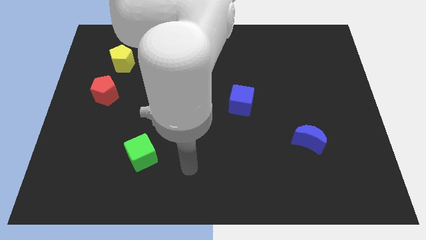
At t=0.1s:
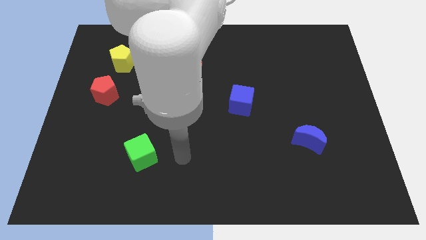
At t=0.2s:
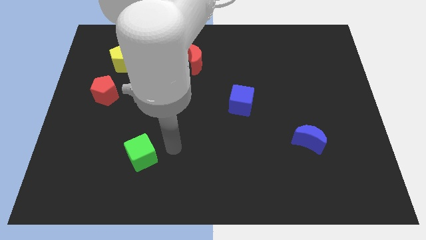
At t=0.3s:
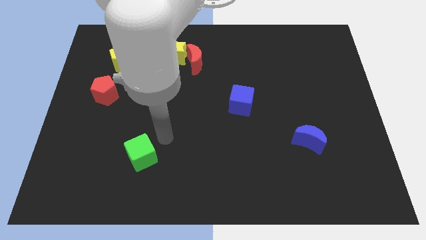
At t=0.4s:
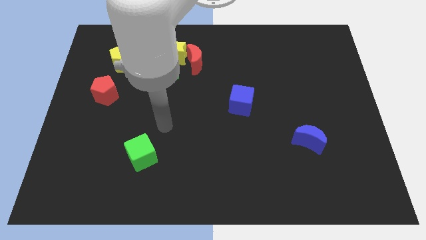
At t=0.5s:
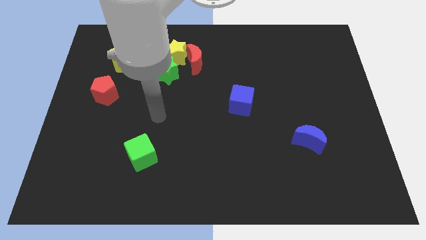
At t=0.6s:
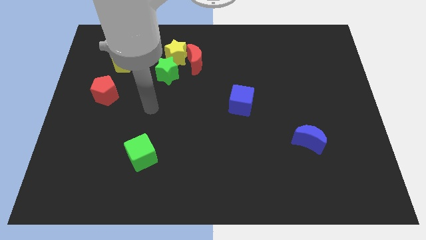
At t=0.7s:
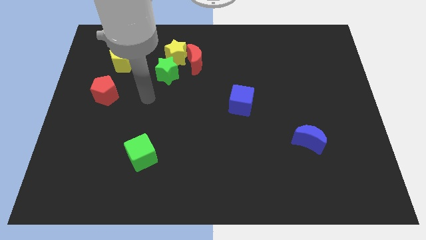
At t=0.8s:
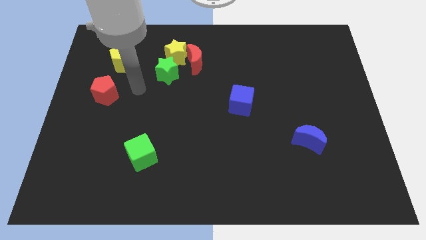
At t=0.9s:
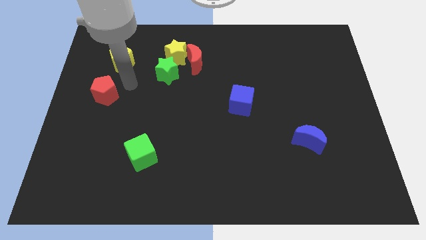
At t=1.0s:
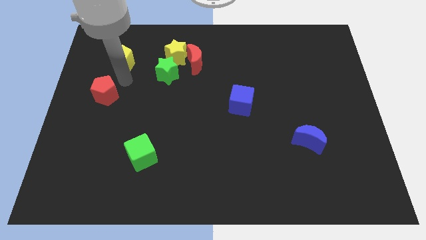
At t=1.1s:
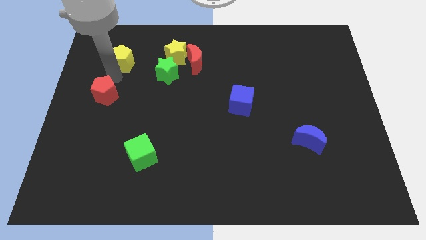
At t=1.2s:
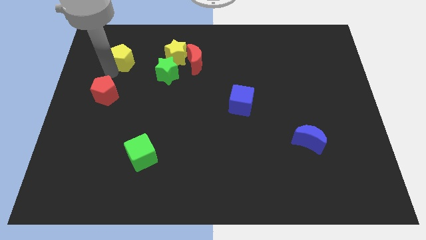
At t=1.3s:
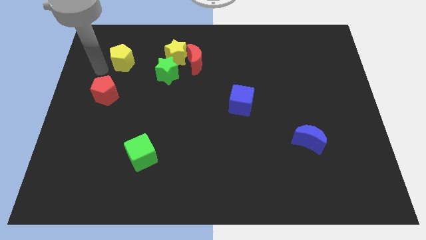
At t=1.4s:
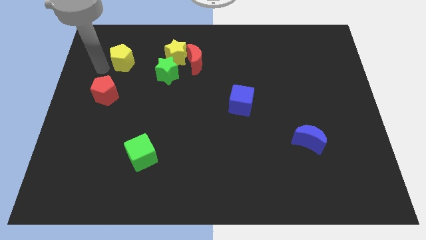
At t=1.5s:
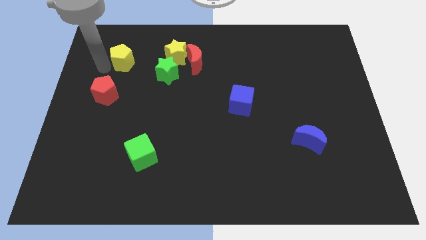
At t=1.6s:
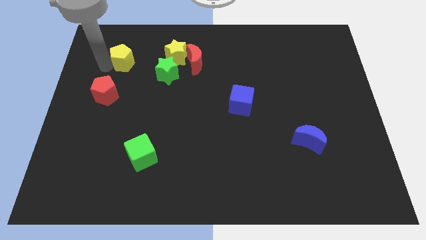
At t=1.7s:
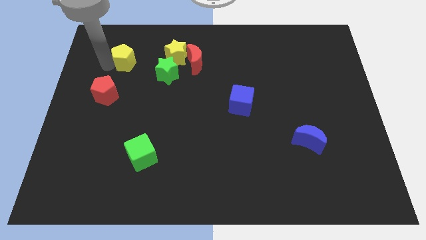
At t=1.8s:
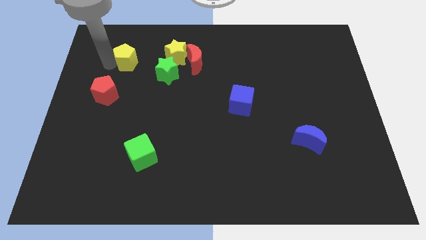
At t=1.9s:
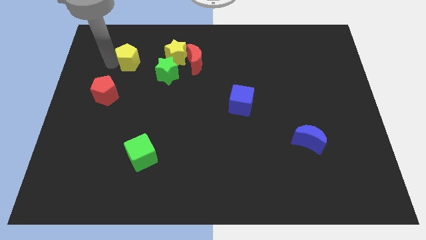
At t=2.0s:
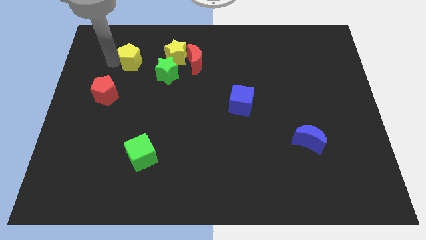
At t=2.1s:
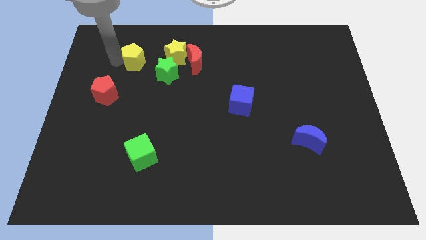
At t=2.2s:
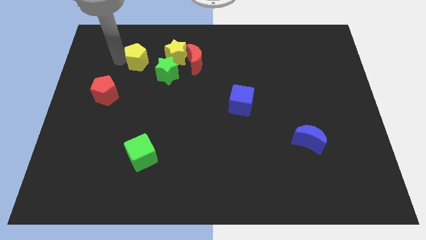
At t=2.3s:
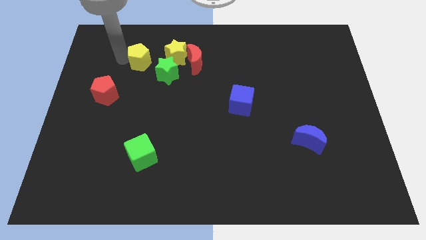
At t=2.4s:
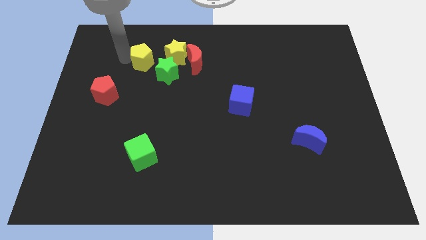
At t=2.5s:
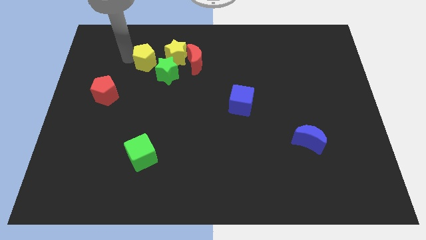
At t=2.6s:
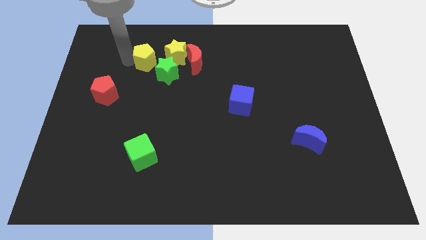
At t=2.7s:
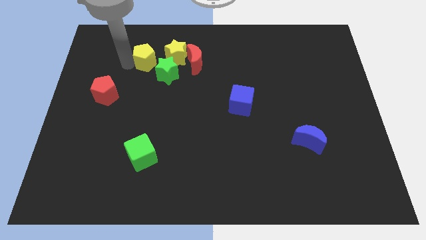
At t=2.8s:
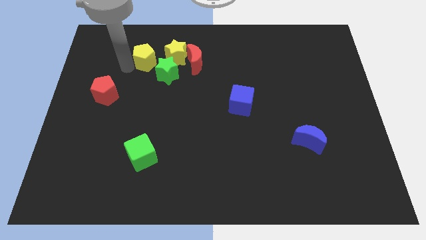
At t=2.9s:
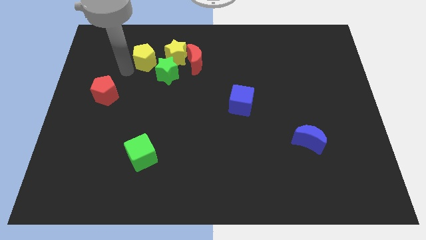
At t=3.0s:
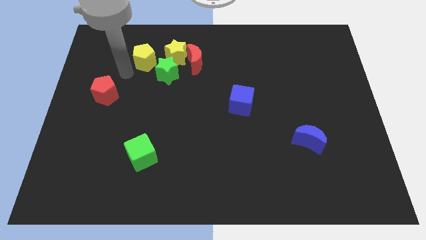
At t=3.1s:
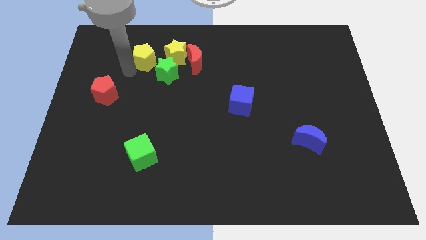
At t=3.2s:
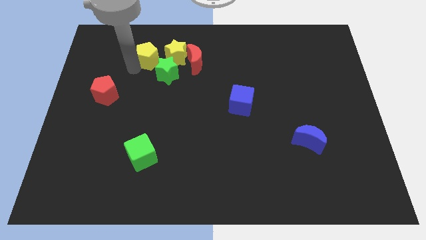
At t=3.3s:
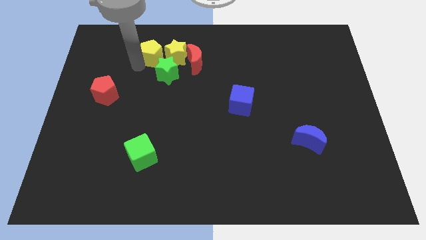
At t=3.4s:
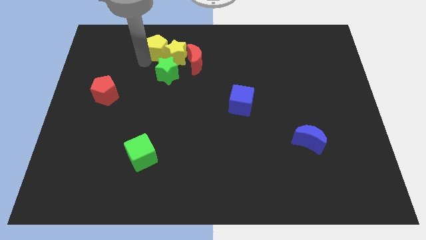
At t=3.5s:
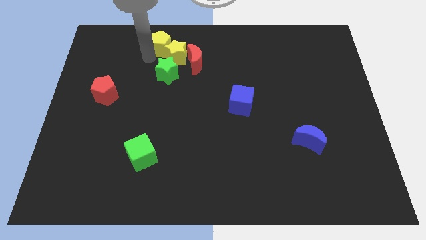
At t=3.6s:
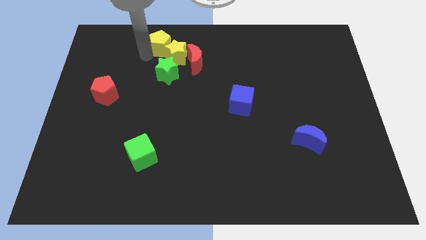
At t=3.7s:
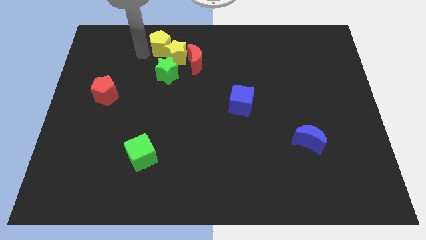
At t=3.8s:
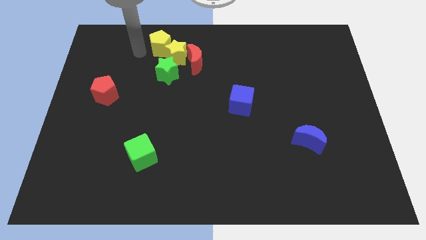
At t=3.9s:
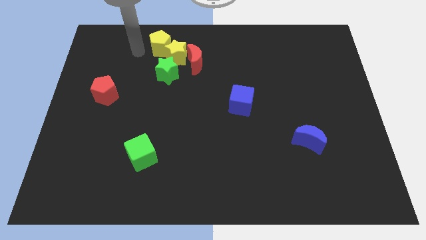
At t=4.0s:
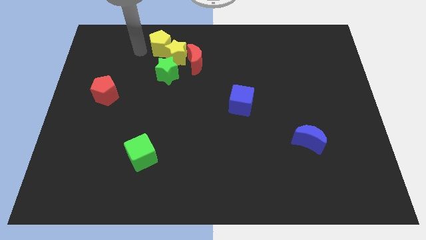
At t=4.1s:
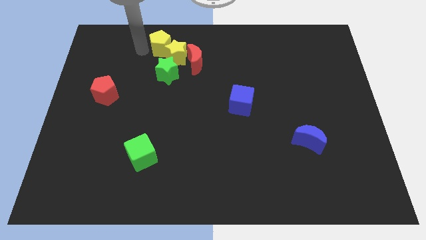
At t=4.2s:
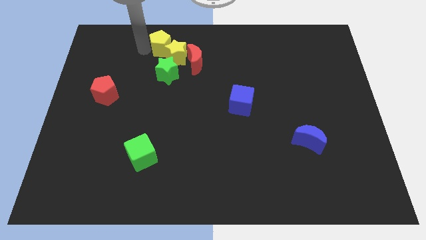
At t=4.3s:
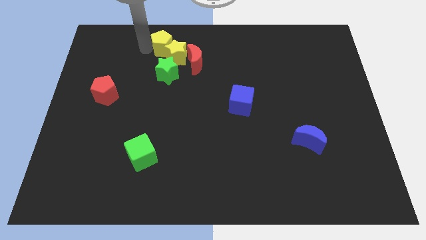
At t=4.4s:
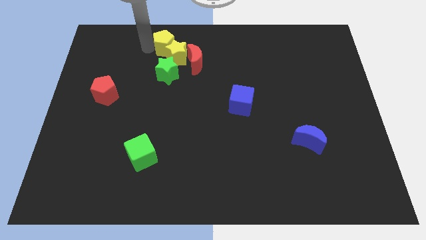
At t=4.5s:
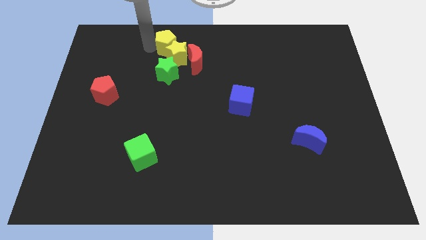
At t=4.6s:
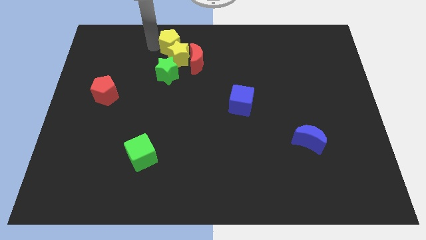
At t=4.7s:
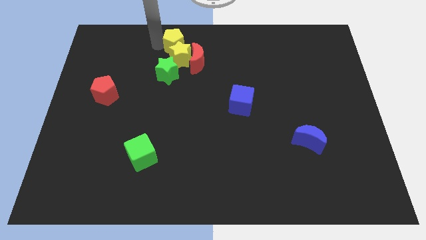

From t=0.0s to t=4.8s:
put the yellow pentagon to the top

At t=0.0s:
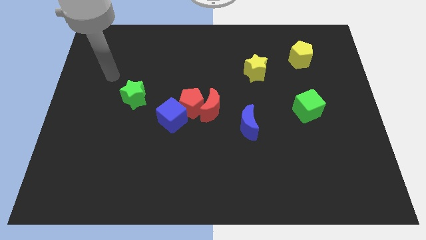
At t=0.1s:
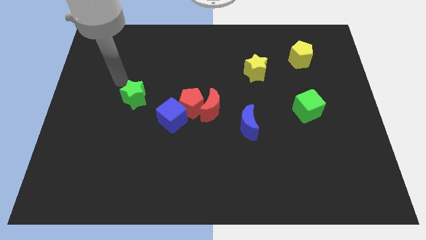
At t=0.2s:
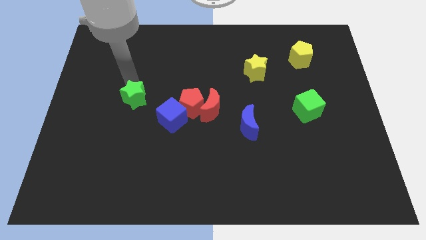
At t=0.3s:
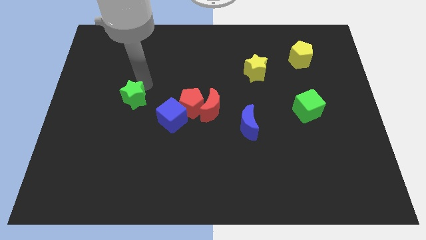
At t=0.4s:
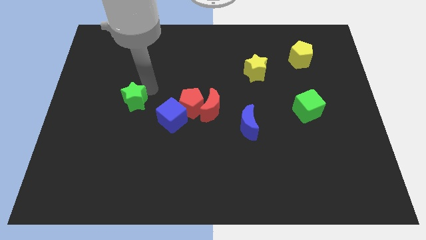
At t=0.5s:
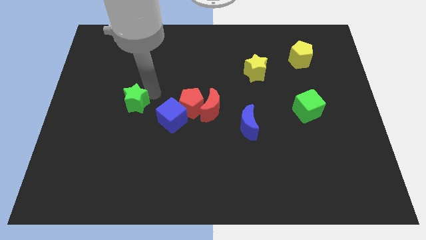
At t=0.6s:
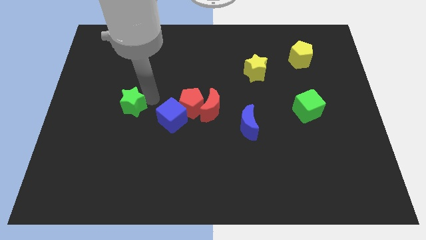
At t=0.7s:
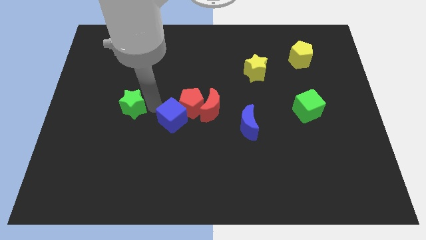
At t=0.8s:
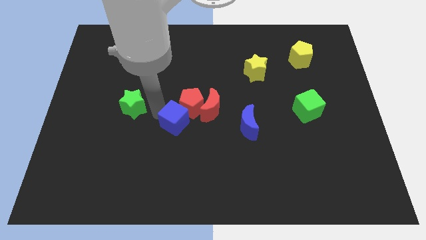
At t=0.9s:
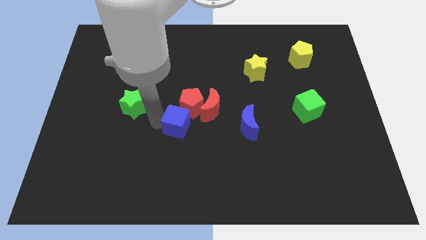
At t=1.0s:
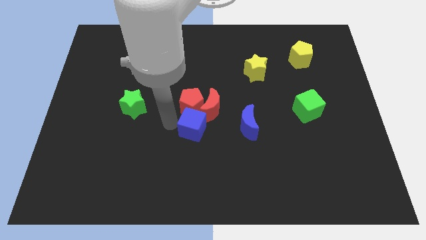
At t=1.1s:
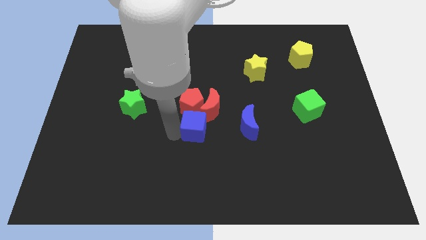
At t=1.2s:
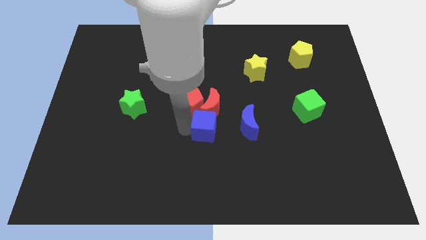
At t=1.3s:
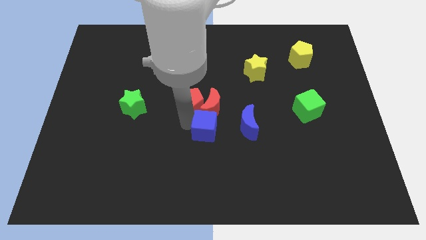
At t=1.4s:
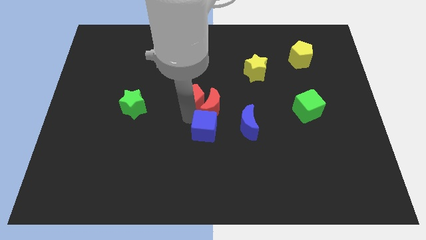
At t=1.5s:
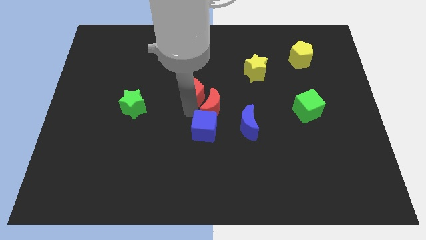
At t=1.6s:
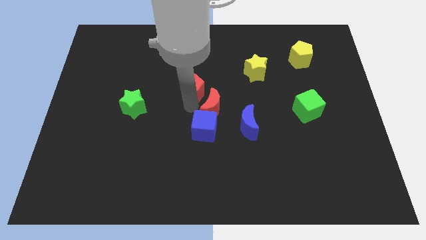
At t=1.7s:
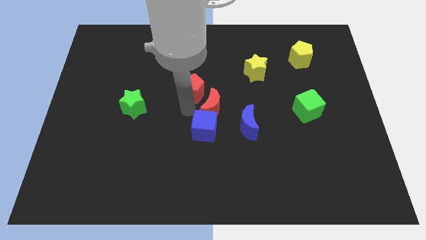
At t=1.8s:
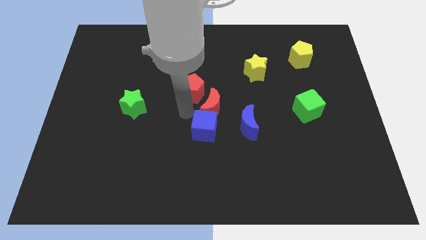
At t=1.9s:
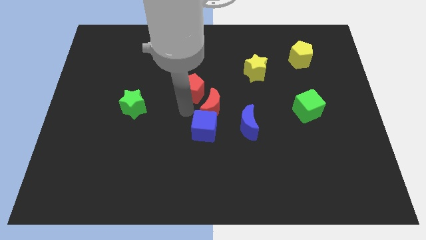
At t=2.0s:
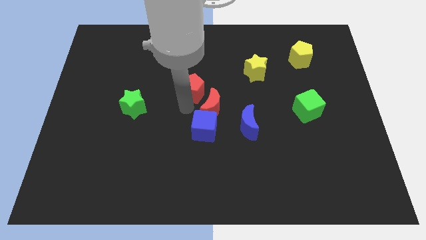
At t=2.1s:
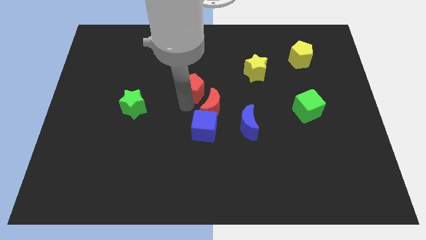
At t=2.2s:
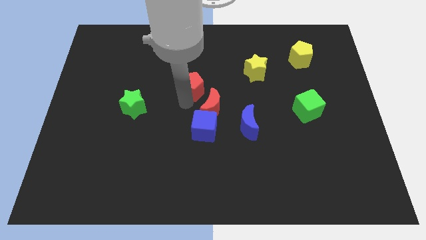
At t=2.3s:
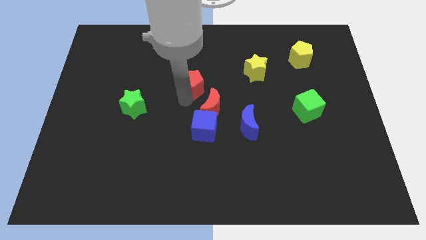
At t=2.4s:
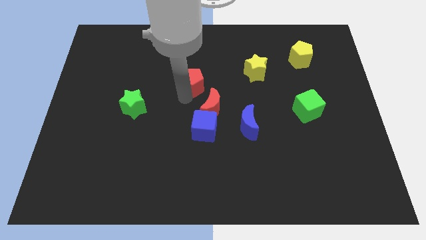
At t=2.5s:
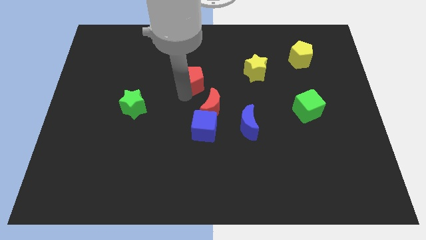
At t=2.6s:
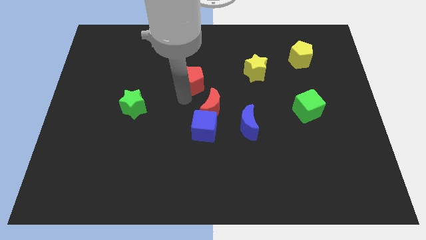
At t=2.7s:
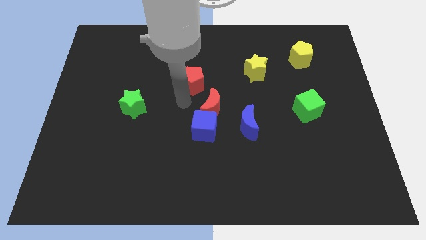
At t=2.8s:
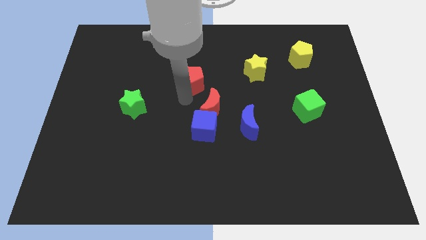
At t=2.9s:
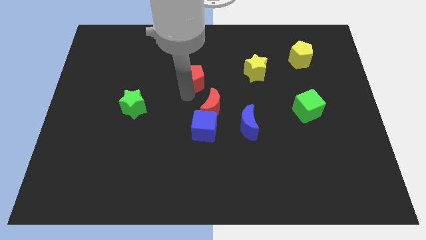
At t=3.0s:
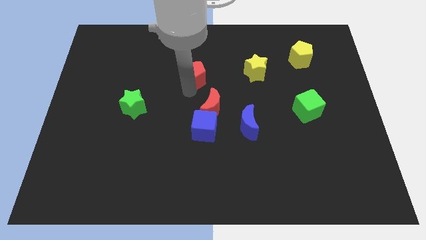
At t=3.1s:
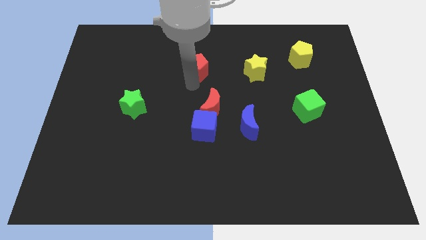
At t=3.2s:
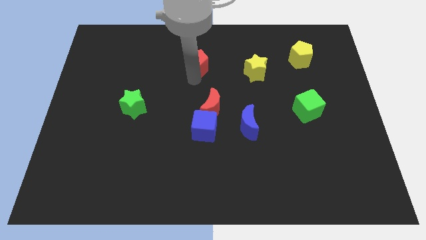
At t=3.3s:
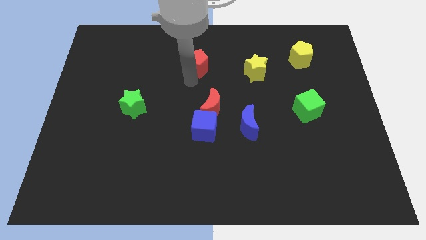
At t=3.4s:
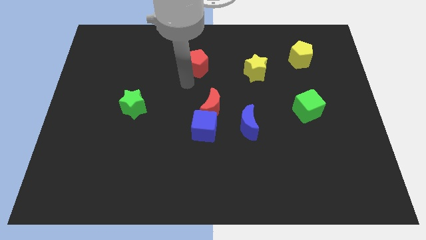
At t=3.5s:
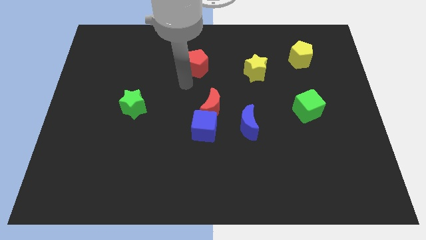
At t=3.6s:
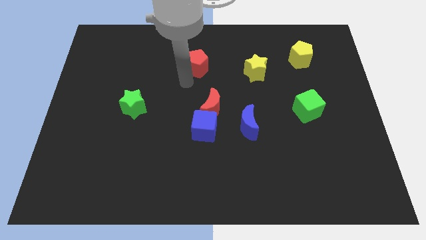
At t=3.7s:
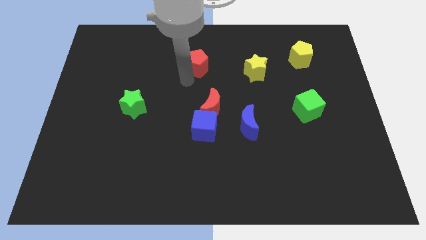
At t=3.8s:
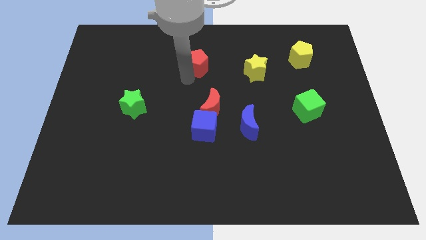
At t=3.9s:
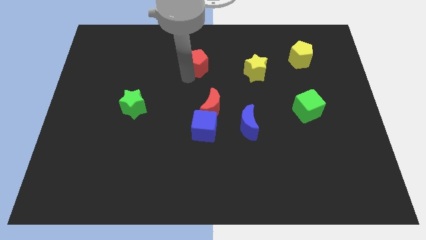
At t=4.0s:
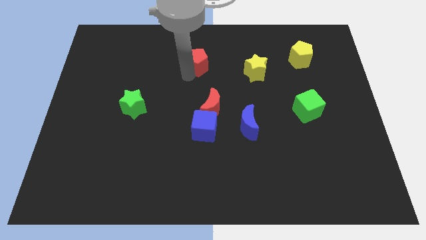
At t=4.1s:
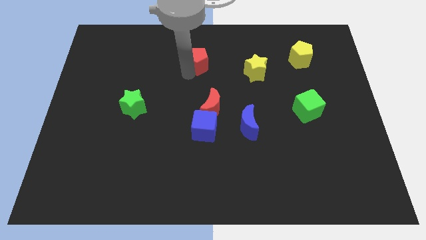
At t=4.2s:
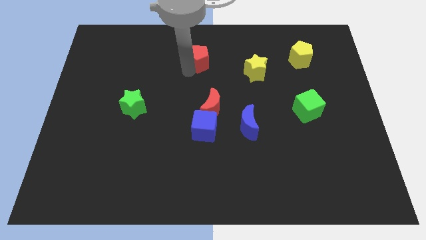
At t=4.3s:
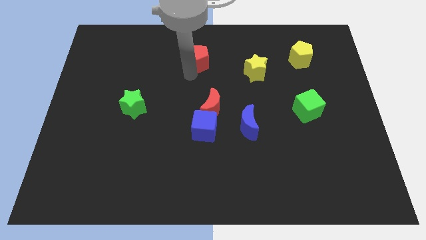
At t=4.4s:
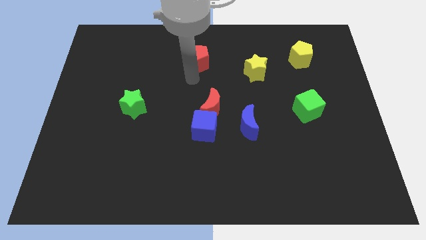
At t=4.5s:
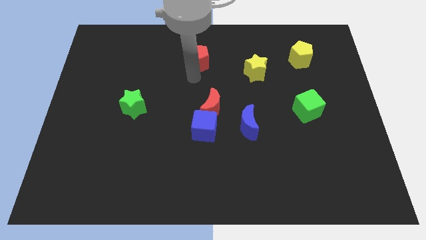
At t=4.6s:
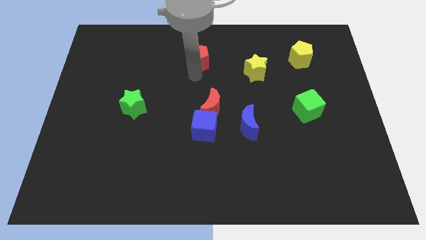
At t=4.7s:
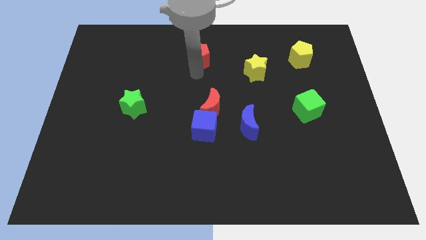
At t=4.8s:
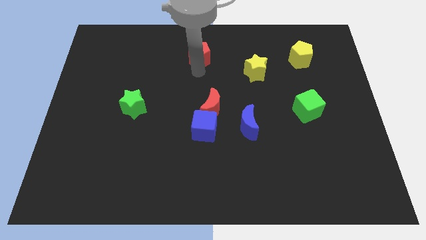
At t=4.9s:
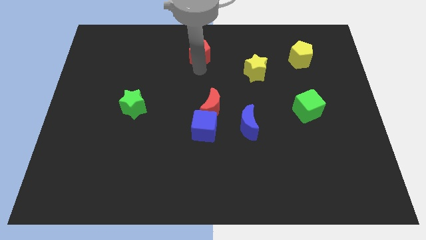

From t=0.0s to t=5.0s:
move the red pentagon to the towards your base
